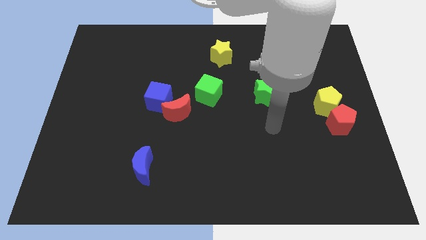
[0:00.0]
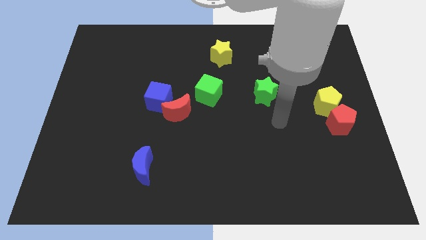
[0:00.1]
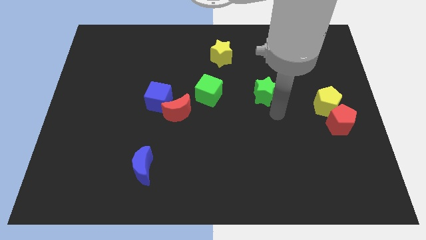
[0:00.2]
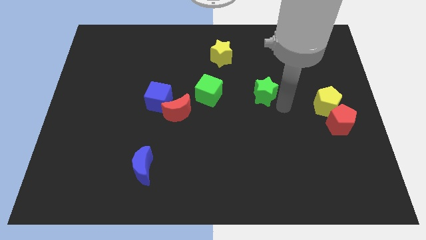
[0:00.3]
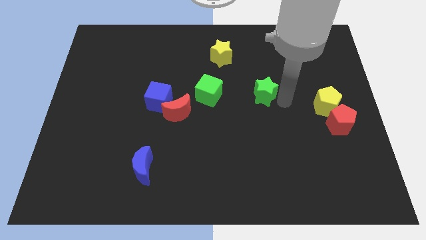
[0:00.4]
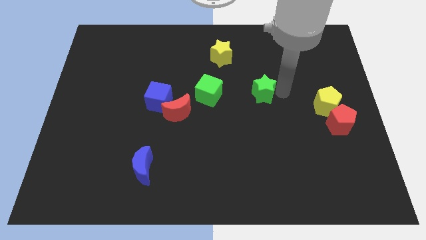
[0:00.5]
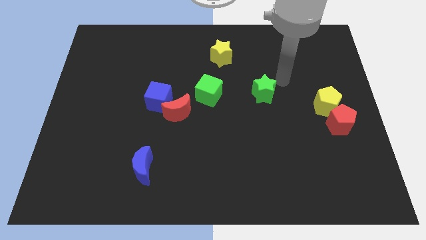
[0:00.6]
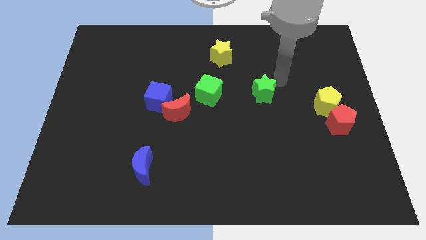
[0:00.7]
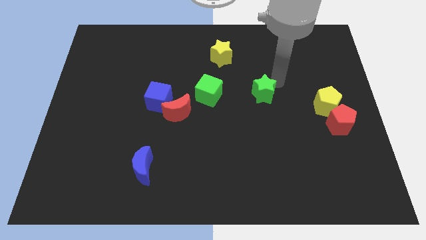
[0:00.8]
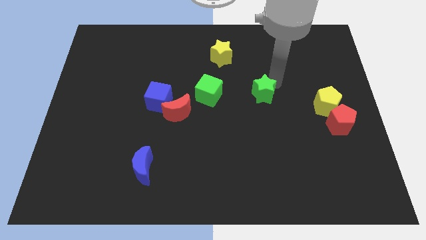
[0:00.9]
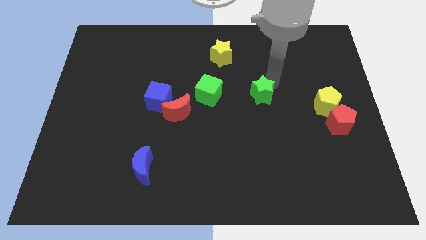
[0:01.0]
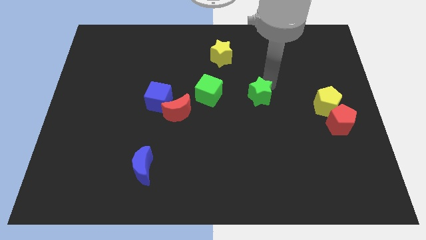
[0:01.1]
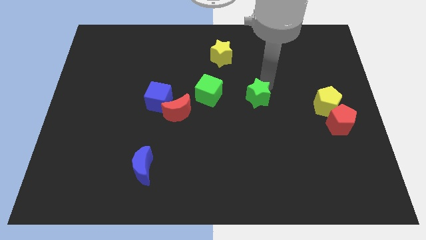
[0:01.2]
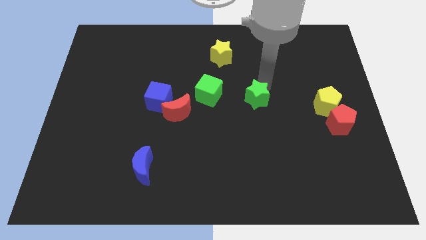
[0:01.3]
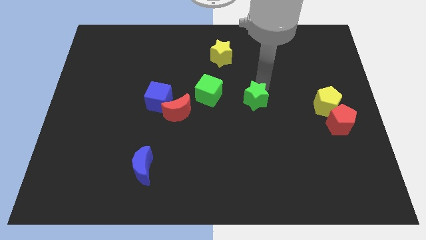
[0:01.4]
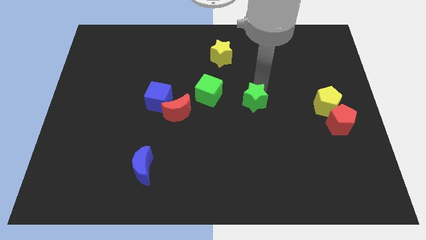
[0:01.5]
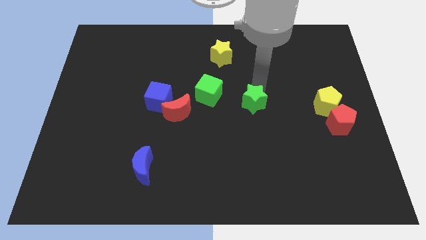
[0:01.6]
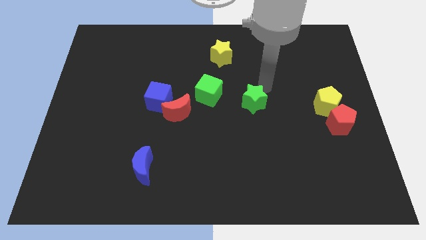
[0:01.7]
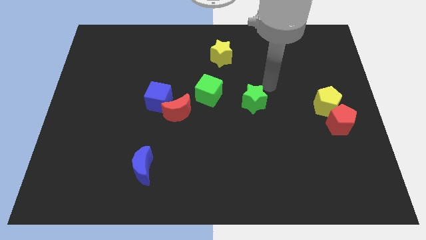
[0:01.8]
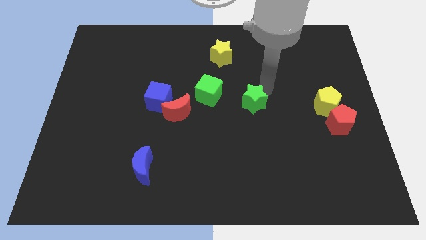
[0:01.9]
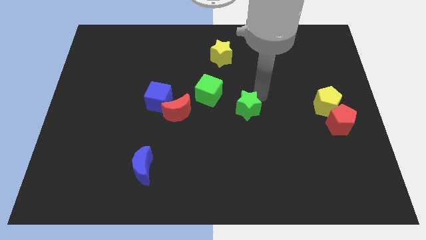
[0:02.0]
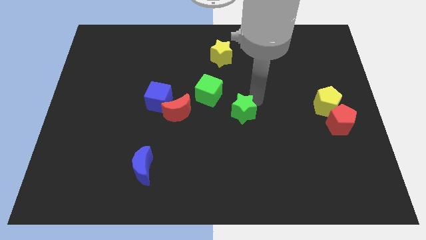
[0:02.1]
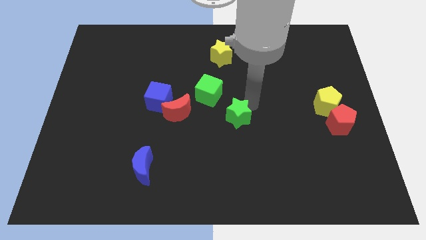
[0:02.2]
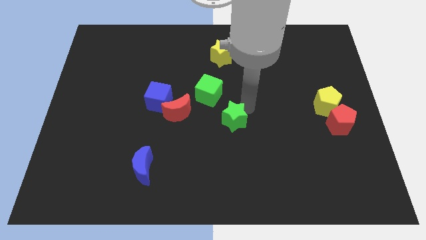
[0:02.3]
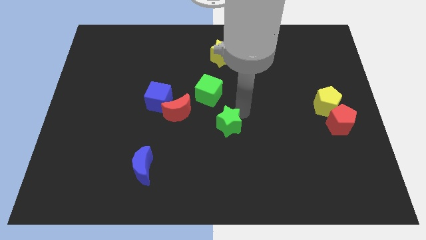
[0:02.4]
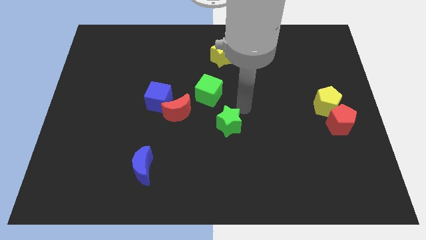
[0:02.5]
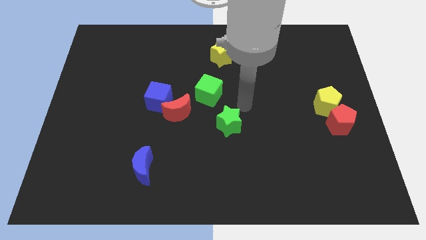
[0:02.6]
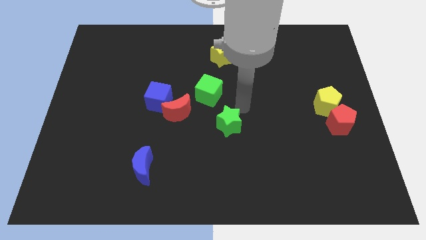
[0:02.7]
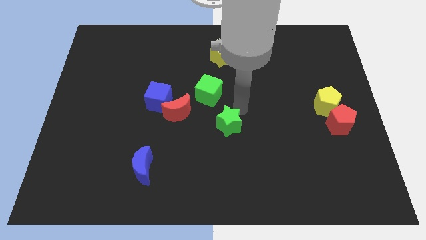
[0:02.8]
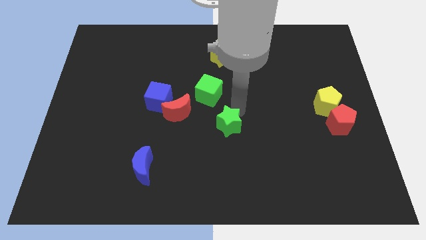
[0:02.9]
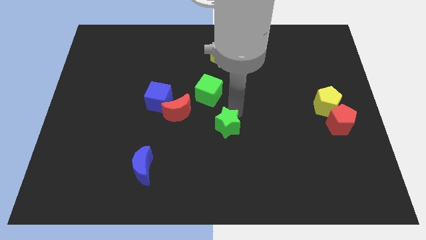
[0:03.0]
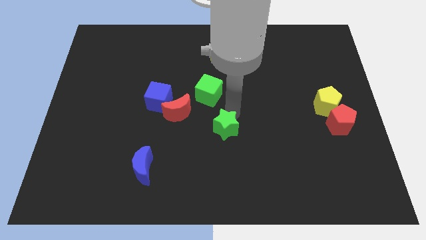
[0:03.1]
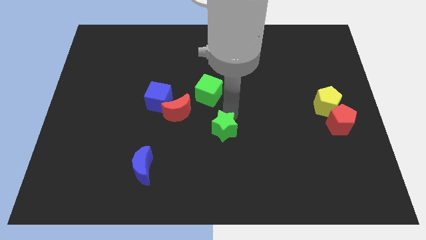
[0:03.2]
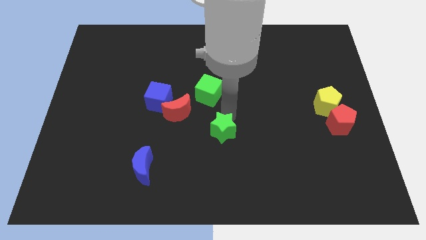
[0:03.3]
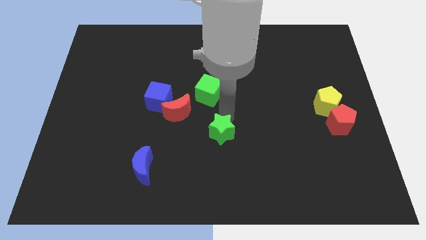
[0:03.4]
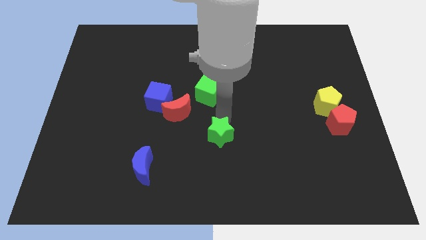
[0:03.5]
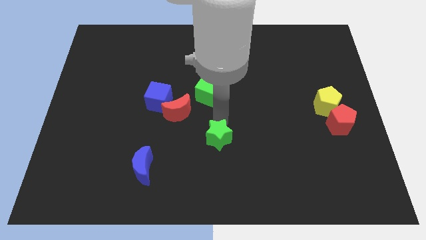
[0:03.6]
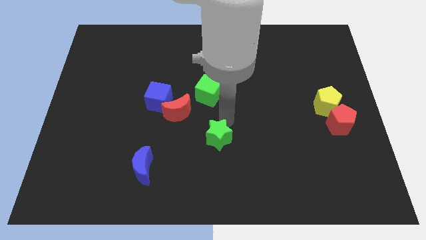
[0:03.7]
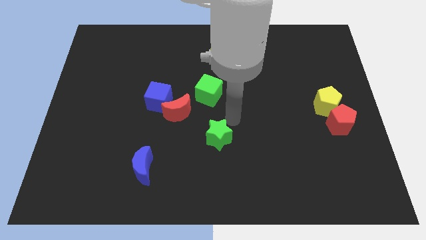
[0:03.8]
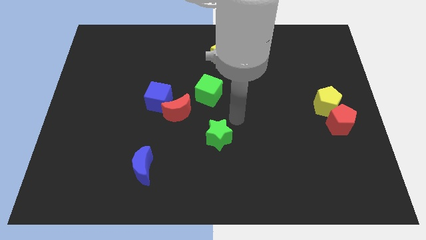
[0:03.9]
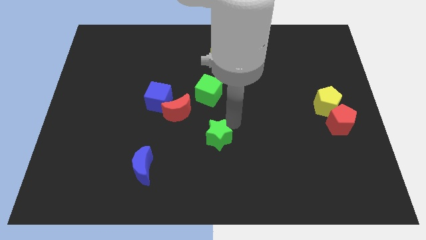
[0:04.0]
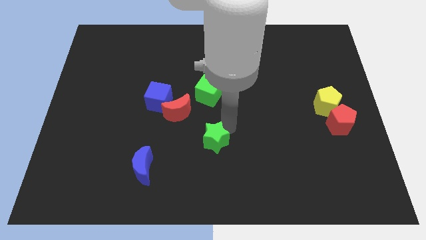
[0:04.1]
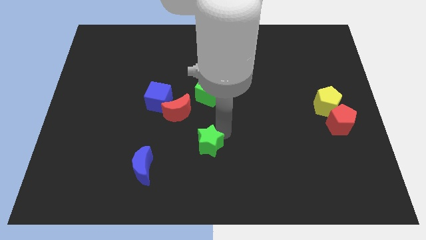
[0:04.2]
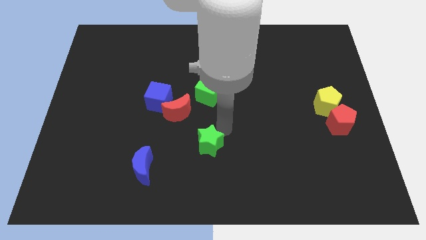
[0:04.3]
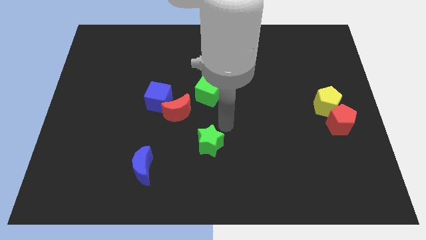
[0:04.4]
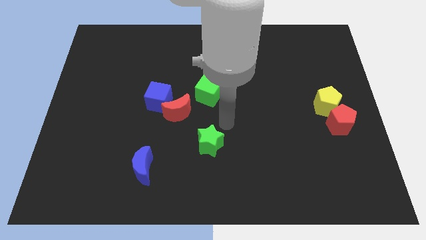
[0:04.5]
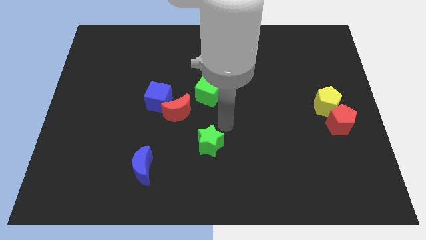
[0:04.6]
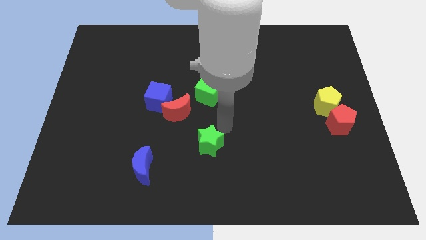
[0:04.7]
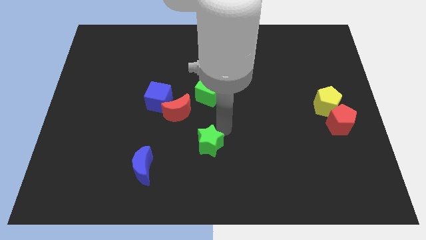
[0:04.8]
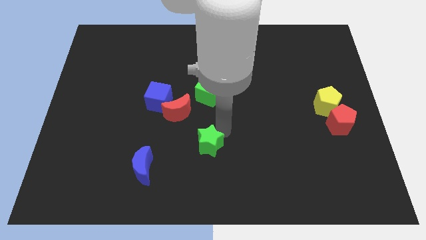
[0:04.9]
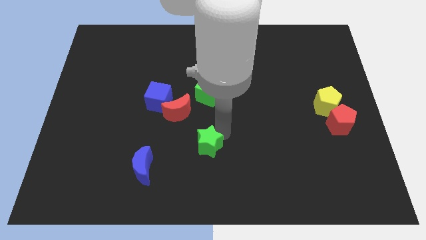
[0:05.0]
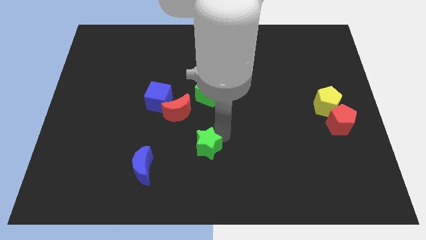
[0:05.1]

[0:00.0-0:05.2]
slide the green star down and then to the left

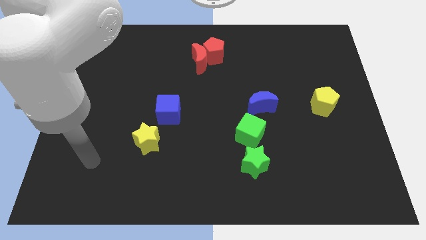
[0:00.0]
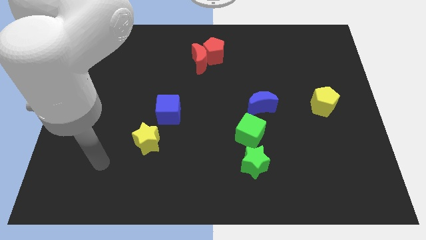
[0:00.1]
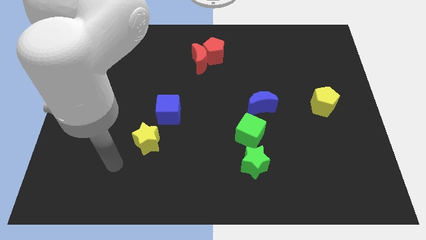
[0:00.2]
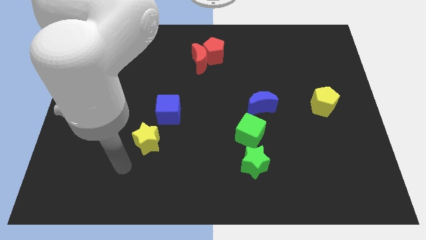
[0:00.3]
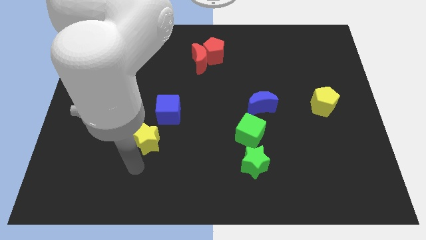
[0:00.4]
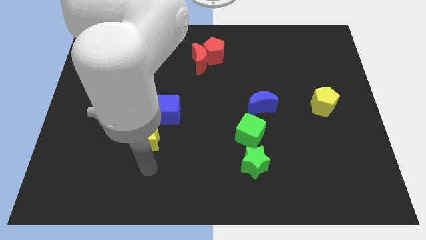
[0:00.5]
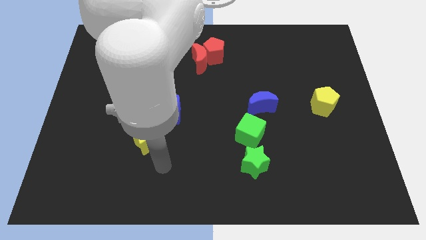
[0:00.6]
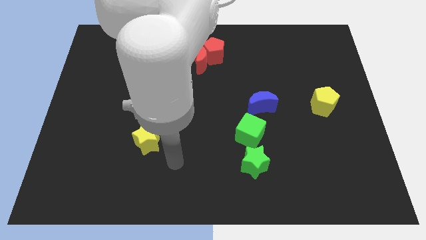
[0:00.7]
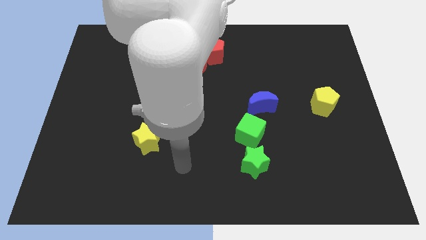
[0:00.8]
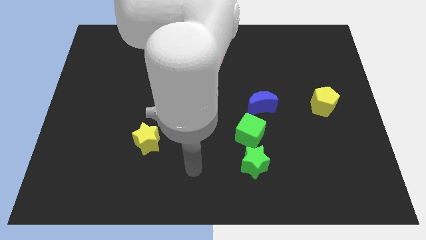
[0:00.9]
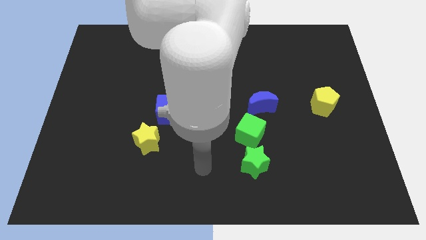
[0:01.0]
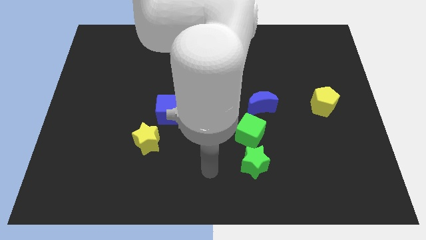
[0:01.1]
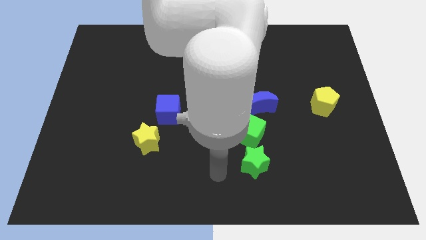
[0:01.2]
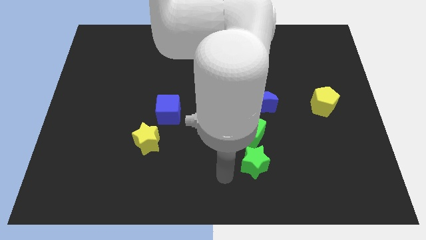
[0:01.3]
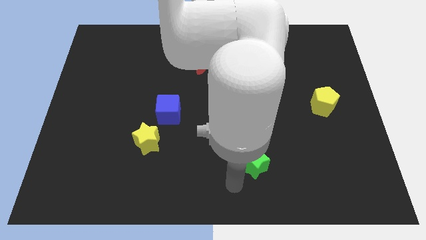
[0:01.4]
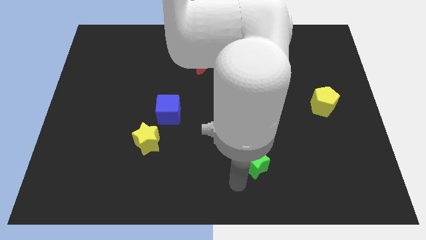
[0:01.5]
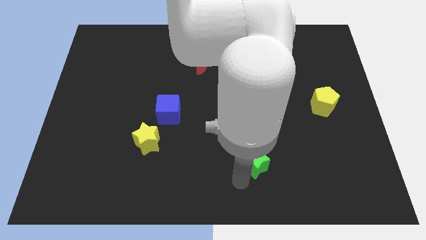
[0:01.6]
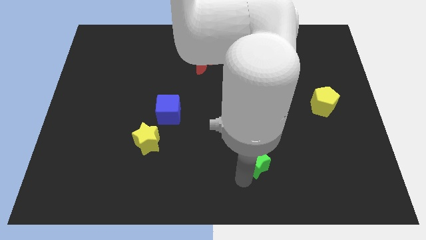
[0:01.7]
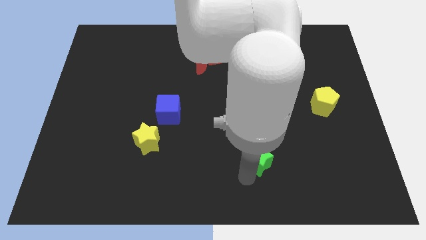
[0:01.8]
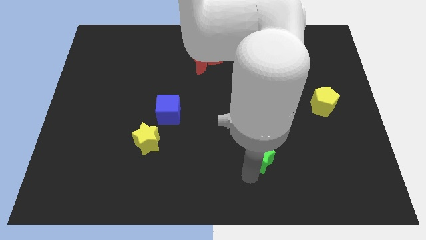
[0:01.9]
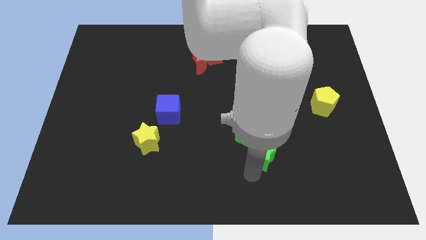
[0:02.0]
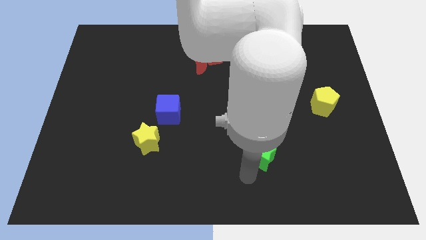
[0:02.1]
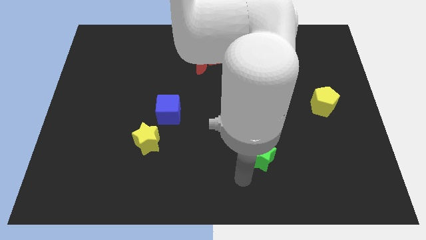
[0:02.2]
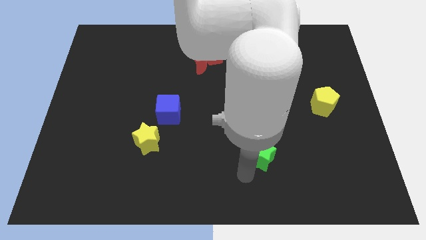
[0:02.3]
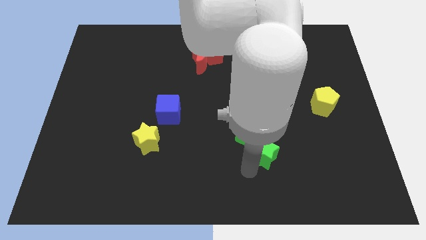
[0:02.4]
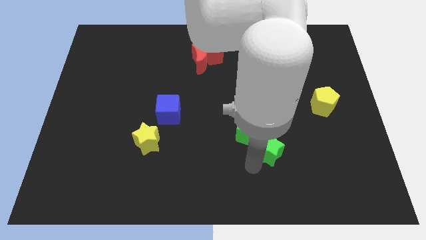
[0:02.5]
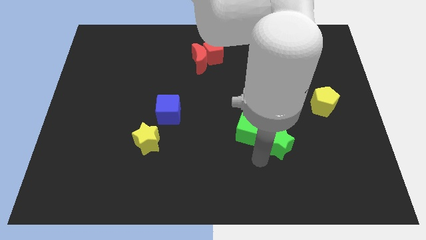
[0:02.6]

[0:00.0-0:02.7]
move the green star slightly up and then right
